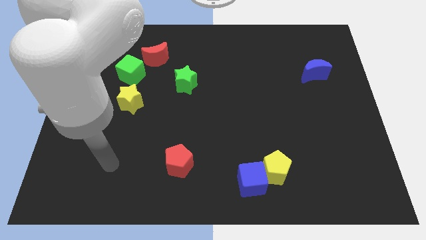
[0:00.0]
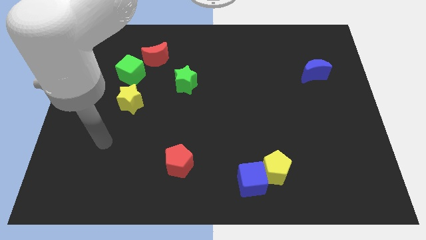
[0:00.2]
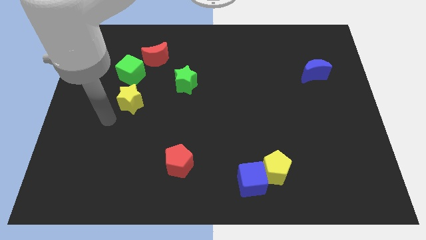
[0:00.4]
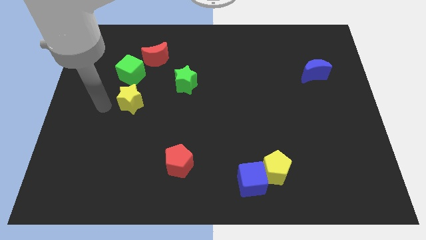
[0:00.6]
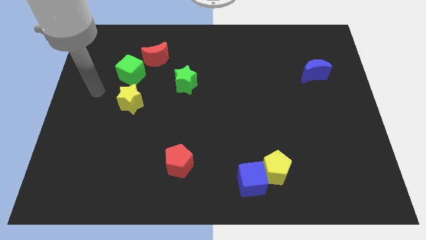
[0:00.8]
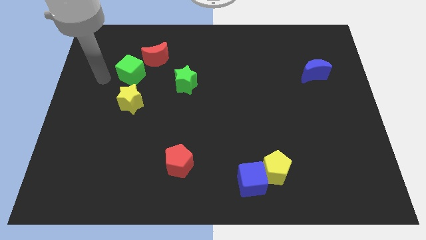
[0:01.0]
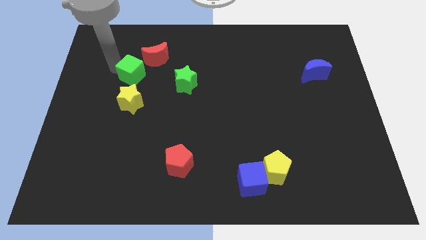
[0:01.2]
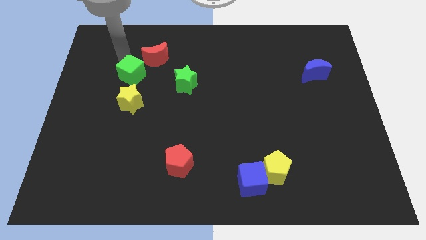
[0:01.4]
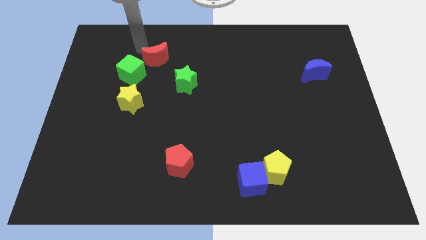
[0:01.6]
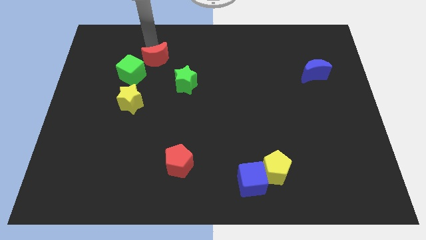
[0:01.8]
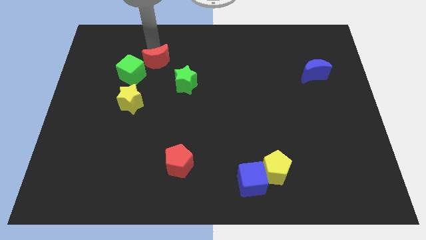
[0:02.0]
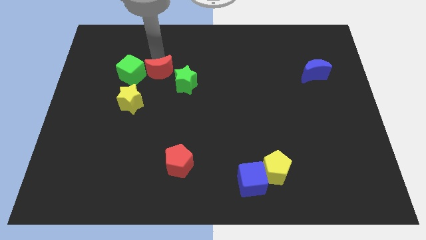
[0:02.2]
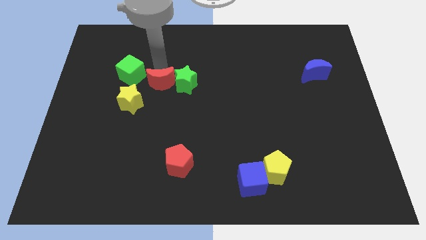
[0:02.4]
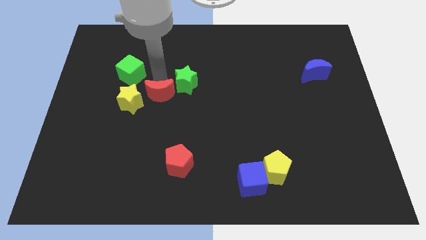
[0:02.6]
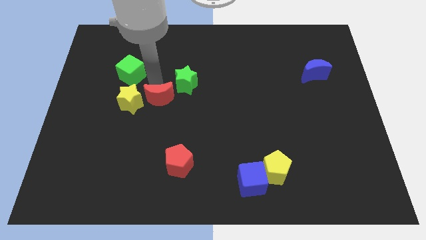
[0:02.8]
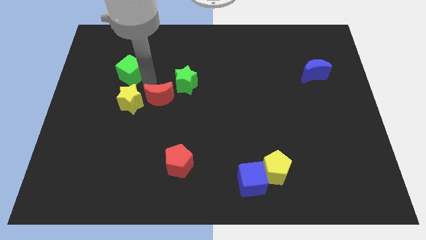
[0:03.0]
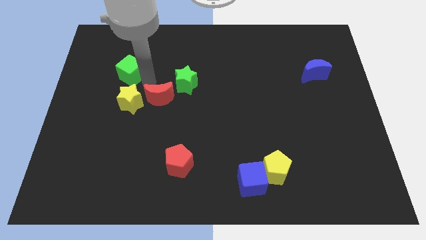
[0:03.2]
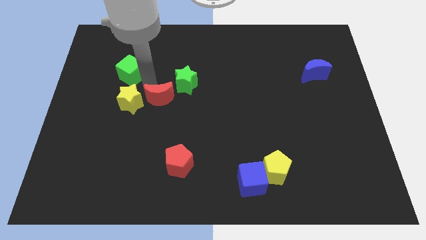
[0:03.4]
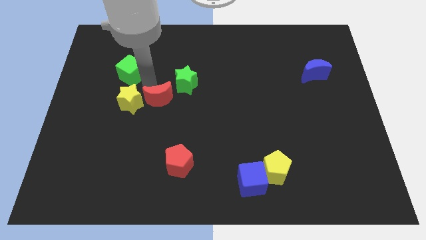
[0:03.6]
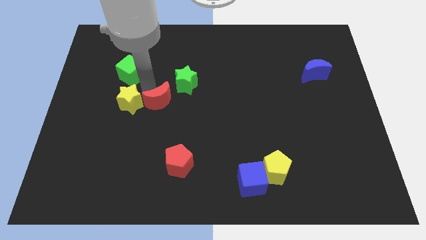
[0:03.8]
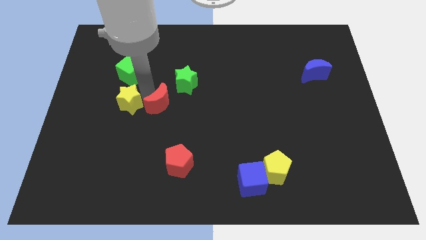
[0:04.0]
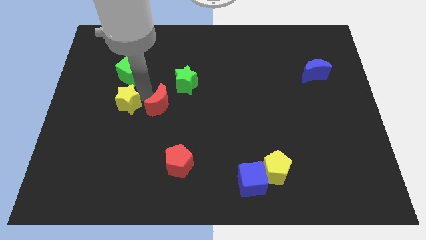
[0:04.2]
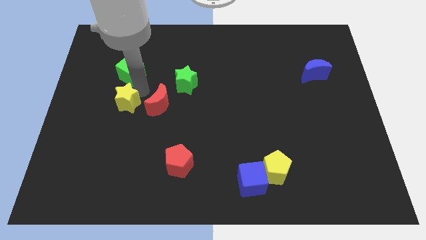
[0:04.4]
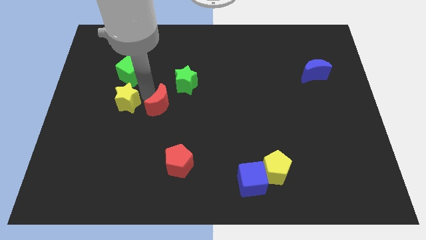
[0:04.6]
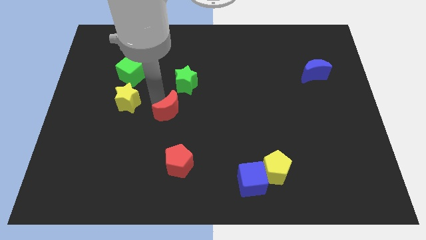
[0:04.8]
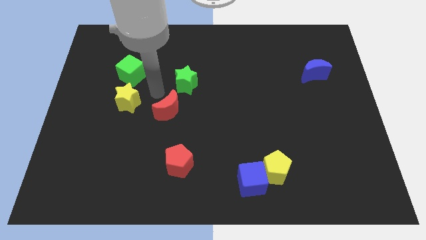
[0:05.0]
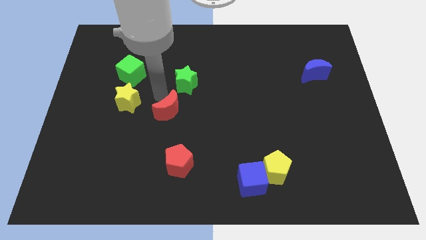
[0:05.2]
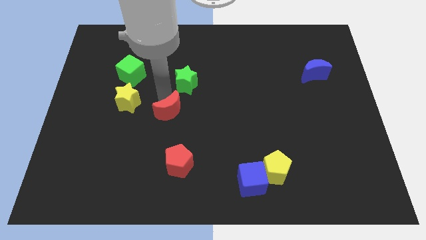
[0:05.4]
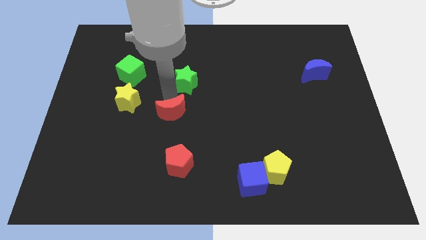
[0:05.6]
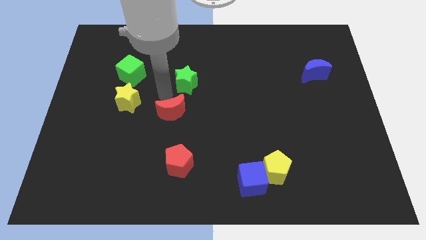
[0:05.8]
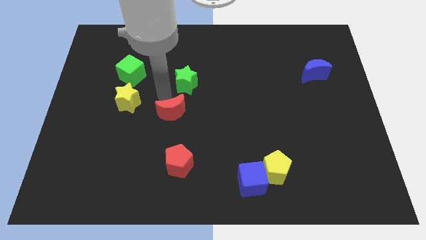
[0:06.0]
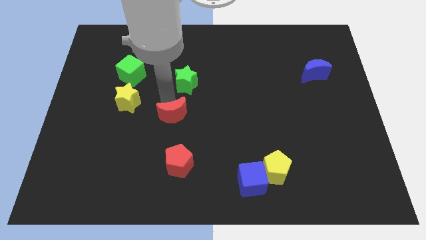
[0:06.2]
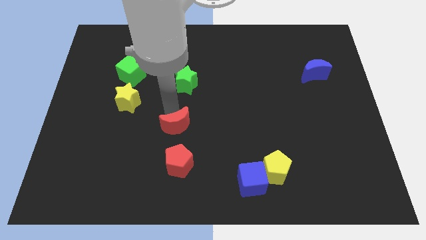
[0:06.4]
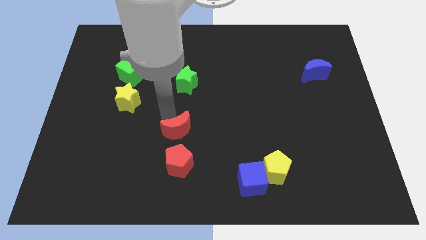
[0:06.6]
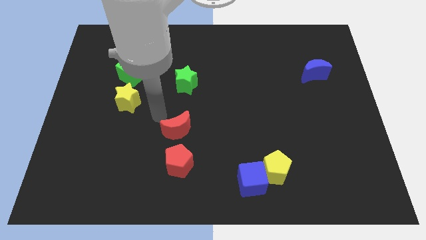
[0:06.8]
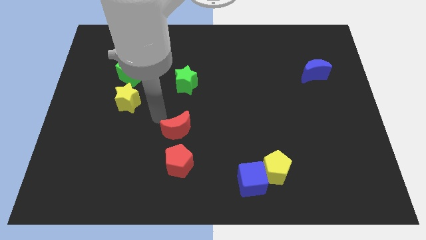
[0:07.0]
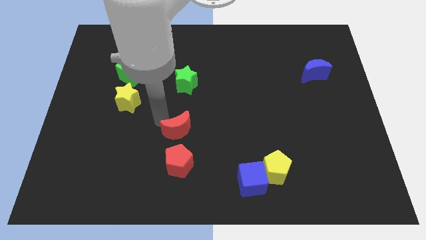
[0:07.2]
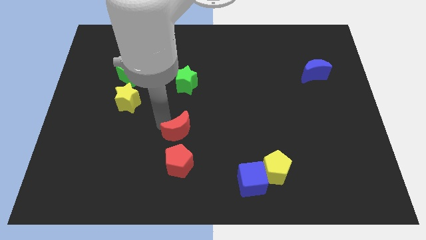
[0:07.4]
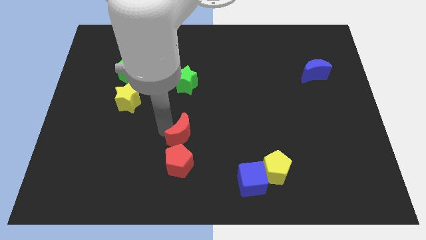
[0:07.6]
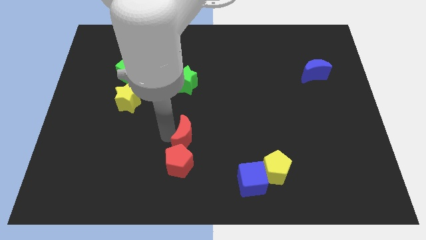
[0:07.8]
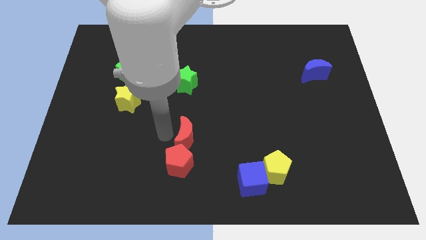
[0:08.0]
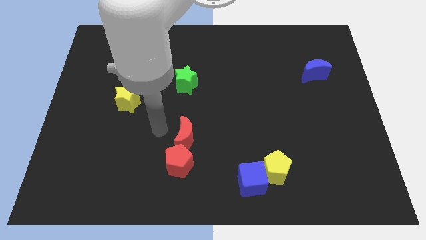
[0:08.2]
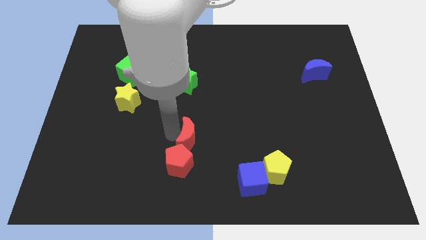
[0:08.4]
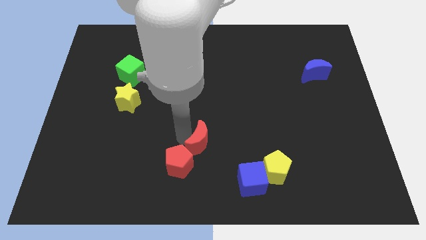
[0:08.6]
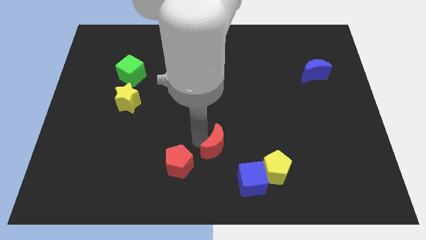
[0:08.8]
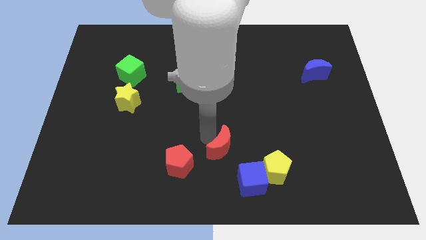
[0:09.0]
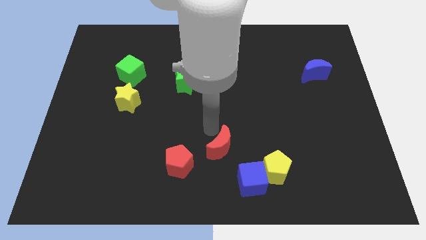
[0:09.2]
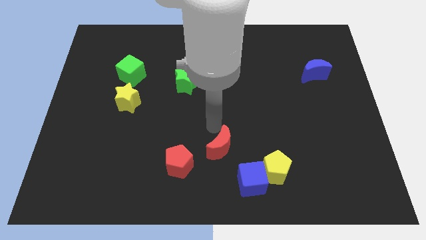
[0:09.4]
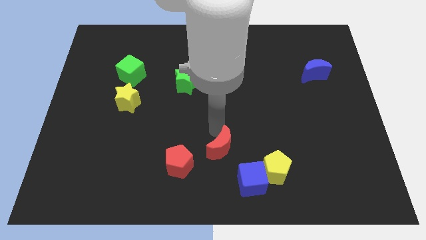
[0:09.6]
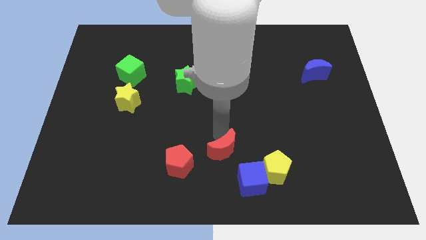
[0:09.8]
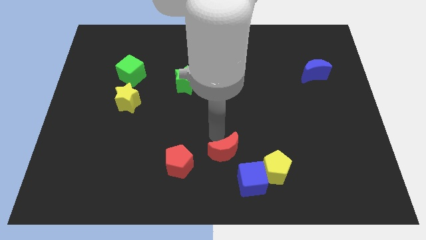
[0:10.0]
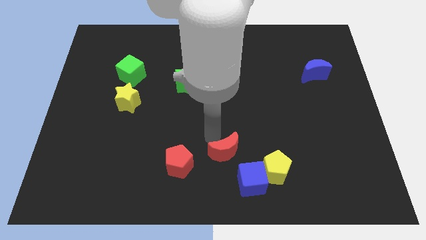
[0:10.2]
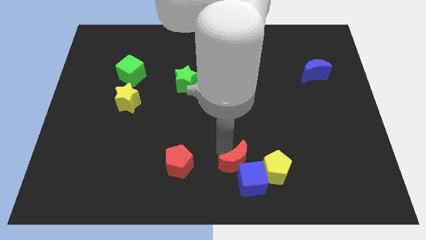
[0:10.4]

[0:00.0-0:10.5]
put the red moon next to the blue cube
